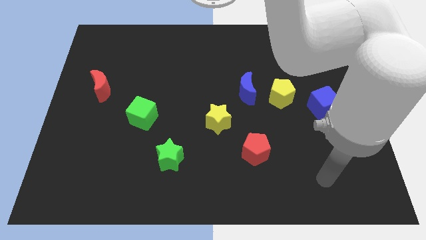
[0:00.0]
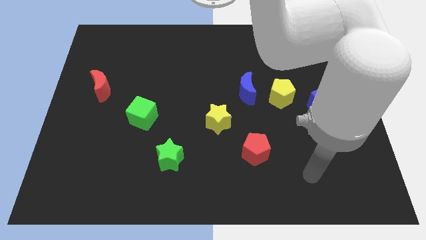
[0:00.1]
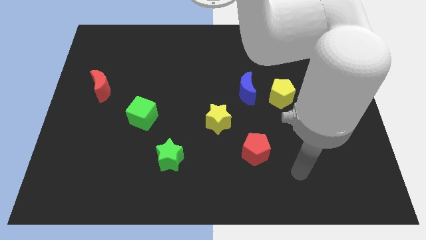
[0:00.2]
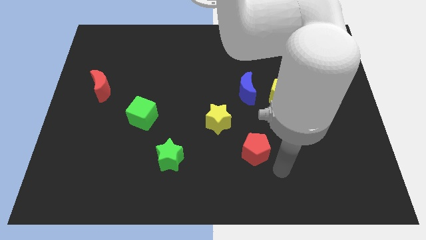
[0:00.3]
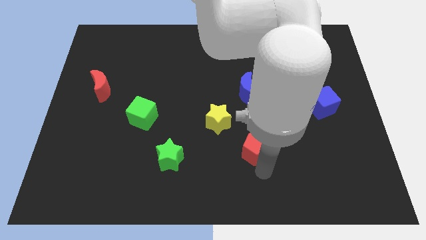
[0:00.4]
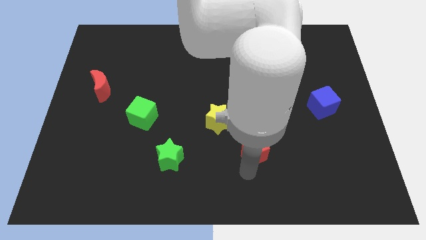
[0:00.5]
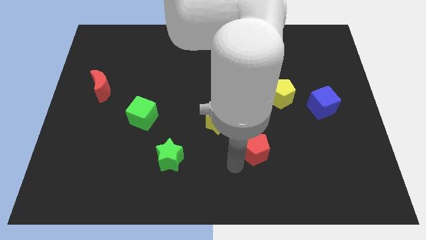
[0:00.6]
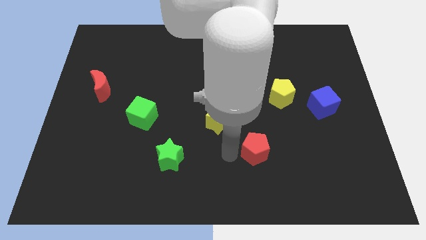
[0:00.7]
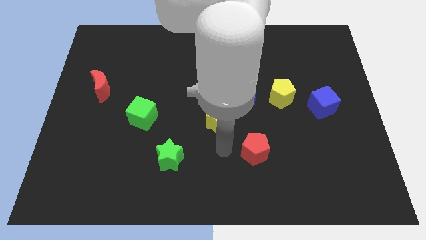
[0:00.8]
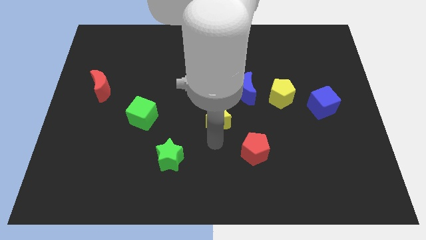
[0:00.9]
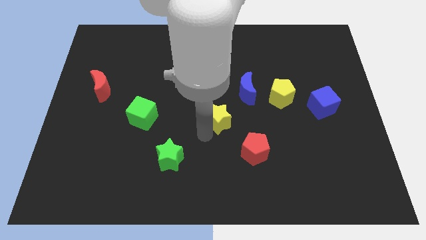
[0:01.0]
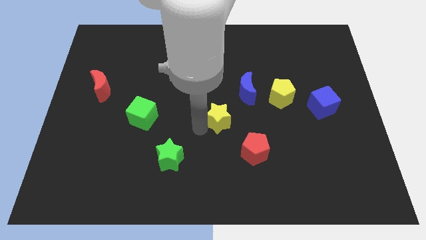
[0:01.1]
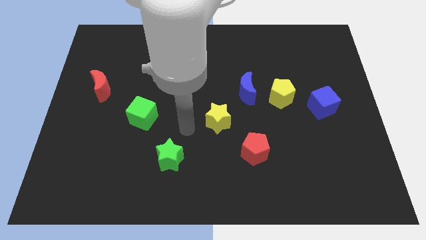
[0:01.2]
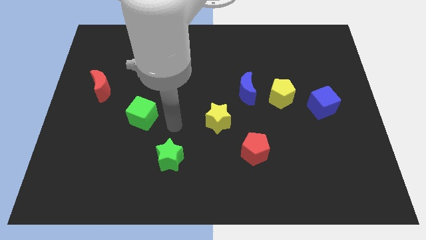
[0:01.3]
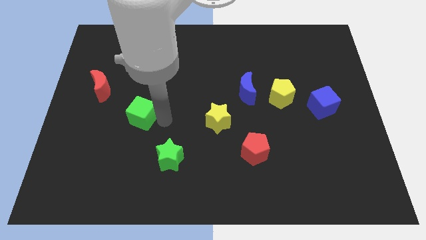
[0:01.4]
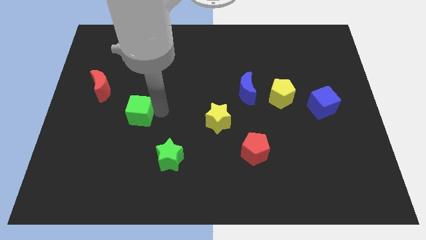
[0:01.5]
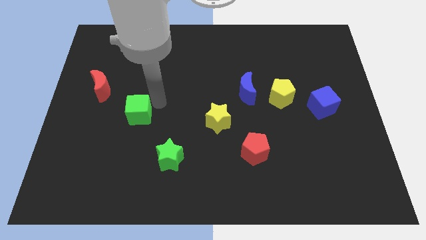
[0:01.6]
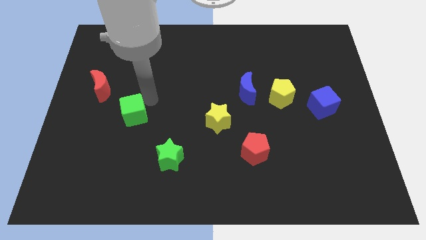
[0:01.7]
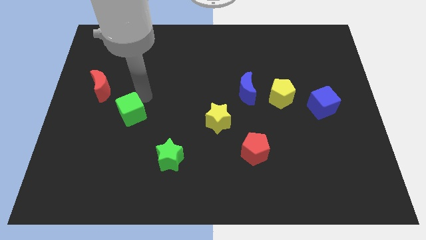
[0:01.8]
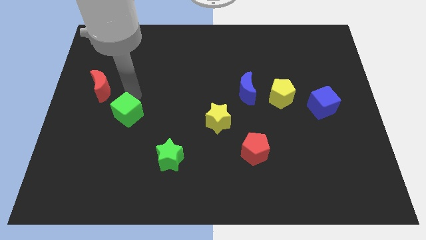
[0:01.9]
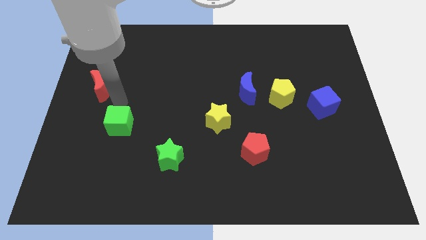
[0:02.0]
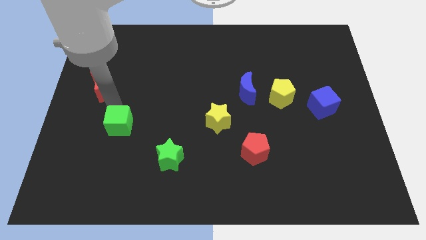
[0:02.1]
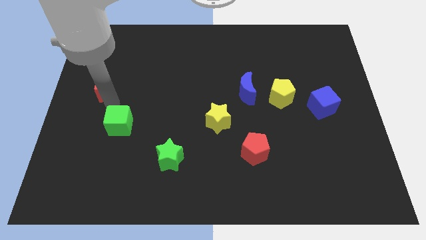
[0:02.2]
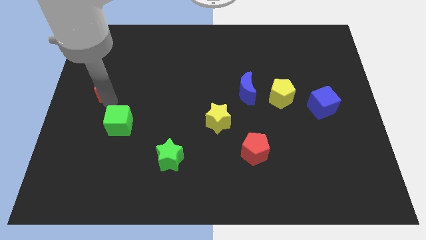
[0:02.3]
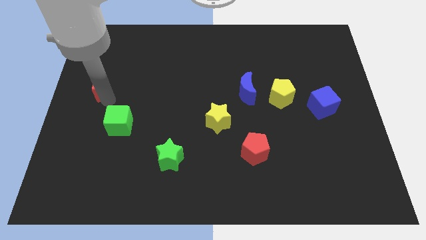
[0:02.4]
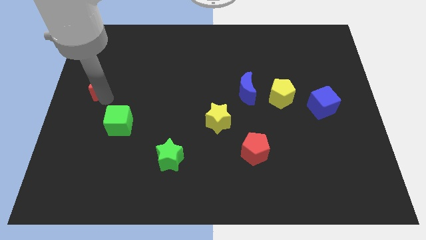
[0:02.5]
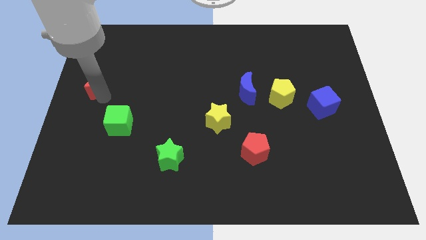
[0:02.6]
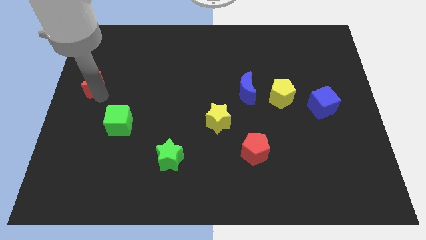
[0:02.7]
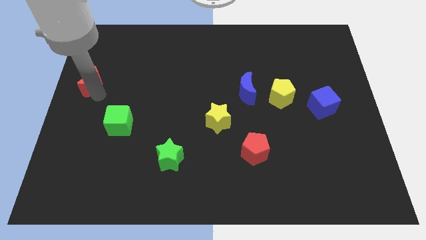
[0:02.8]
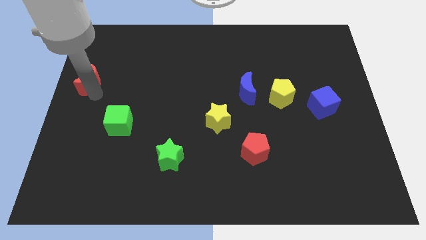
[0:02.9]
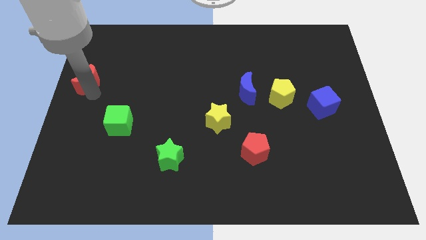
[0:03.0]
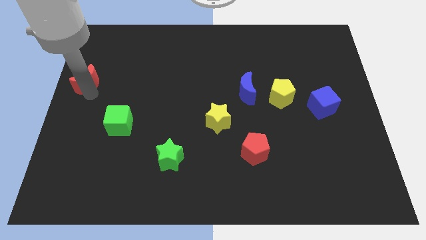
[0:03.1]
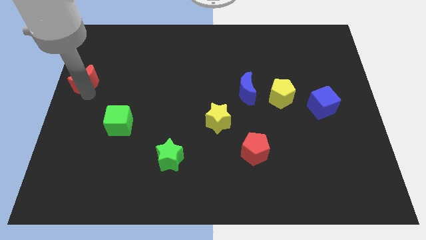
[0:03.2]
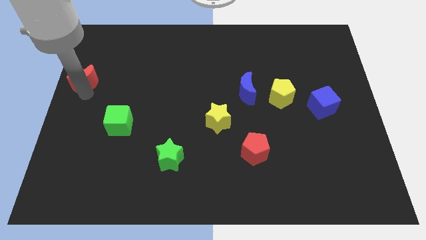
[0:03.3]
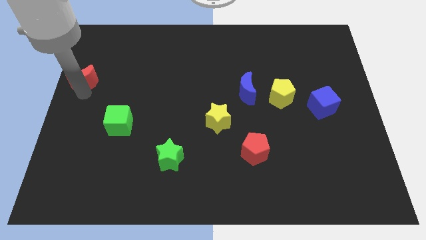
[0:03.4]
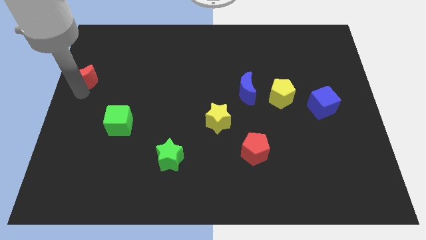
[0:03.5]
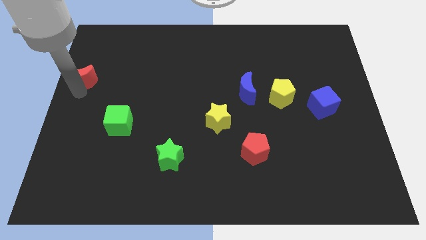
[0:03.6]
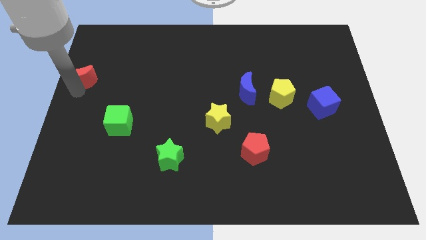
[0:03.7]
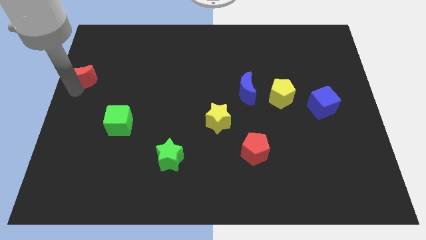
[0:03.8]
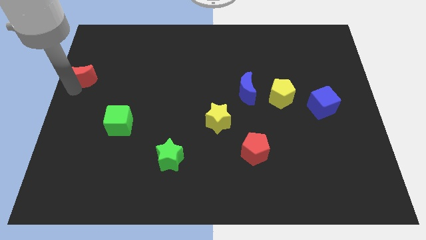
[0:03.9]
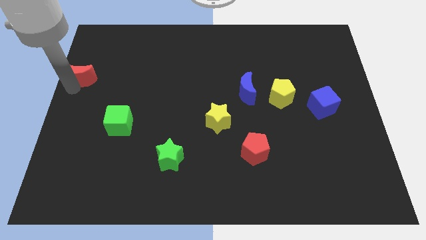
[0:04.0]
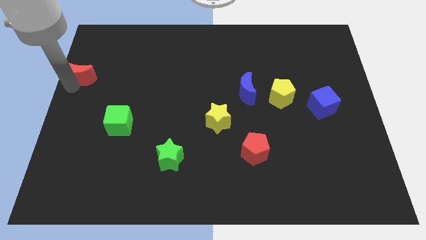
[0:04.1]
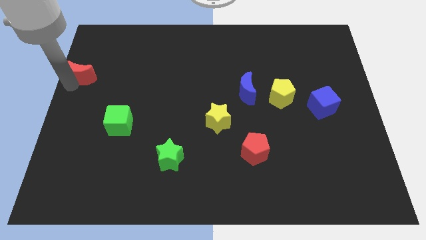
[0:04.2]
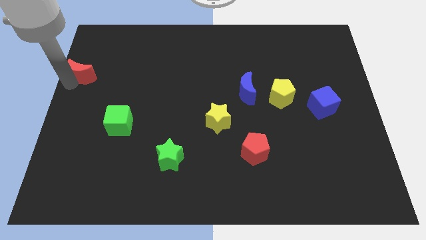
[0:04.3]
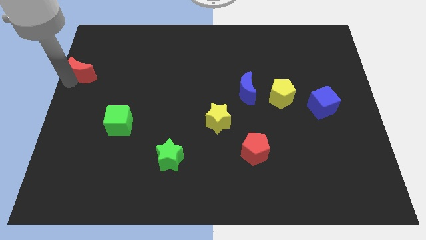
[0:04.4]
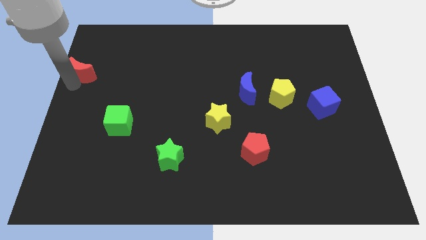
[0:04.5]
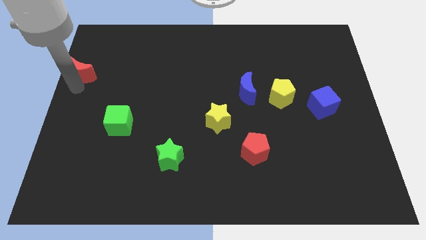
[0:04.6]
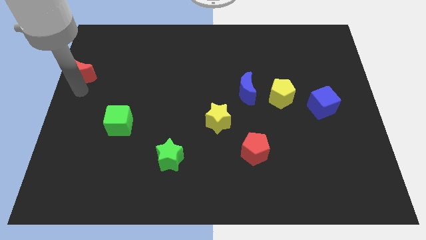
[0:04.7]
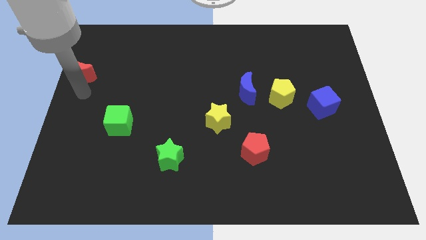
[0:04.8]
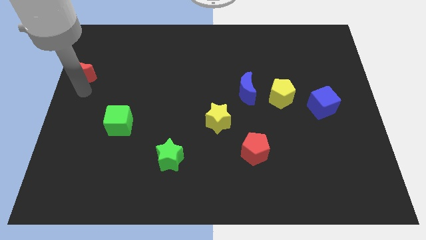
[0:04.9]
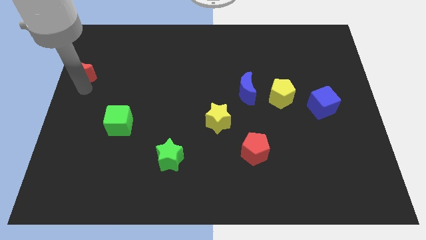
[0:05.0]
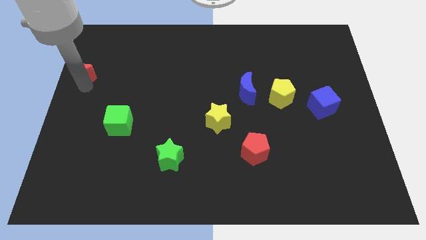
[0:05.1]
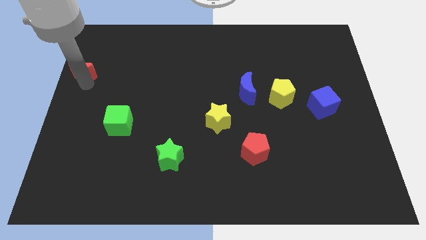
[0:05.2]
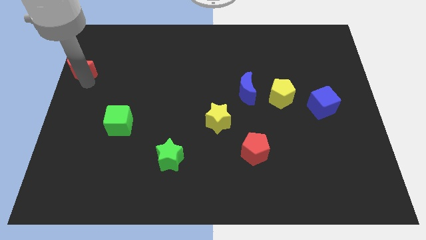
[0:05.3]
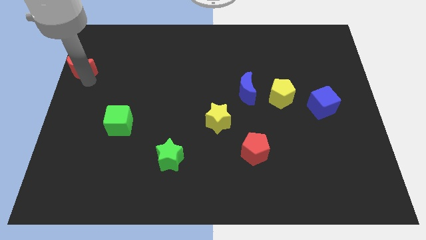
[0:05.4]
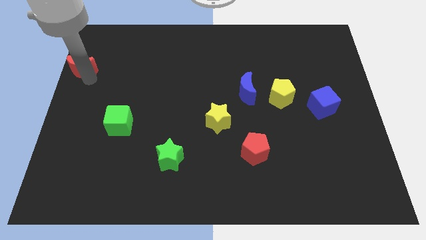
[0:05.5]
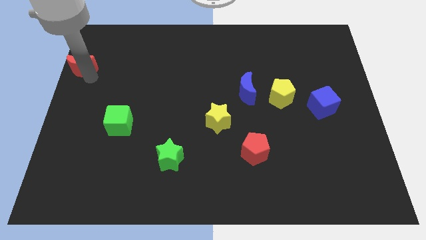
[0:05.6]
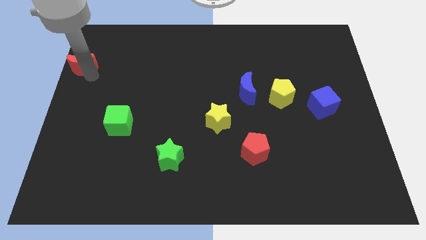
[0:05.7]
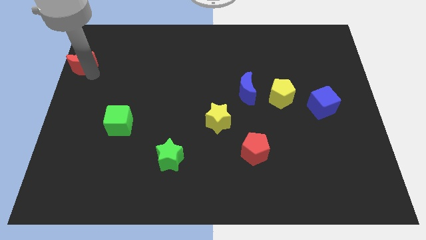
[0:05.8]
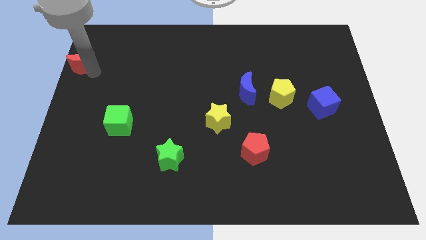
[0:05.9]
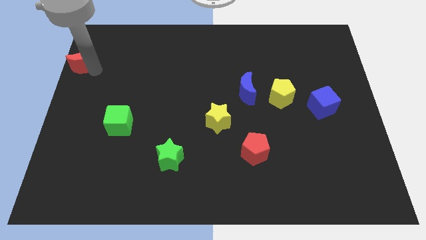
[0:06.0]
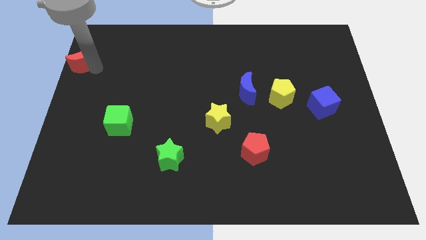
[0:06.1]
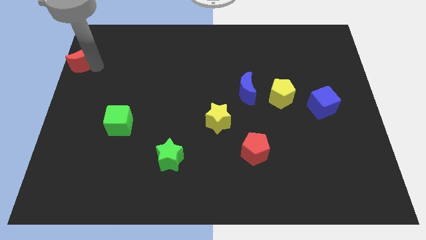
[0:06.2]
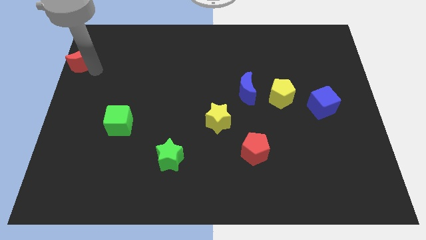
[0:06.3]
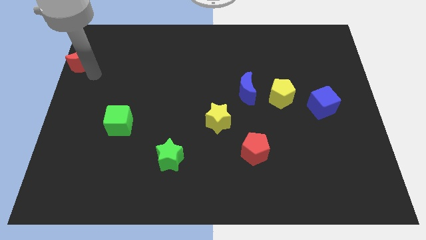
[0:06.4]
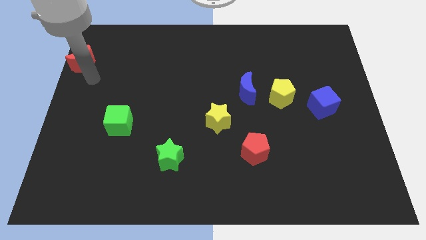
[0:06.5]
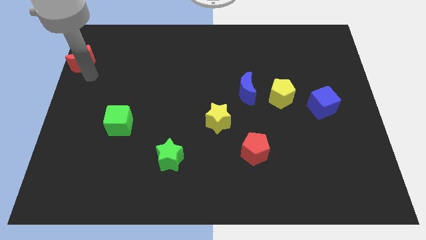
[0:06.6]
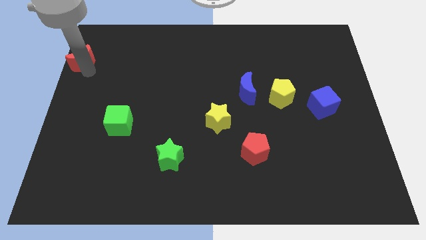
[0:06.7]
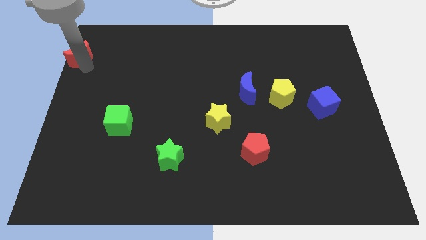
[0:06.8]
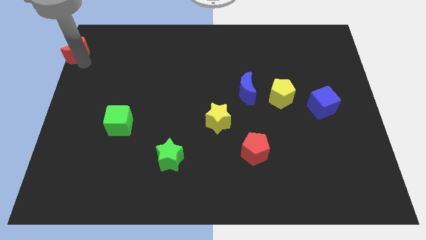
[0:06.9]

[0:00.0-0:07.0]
put the red moon to the top left of the board

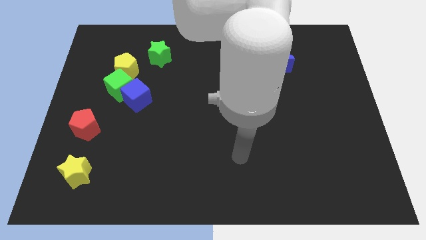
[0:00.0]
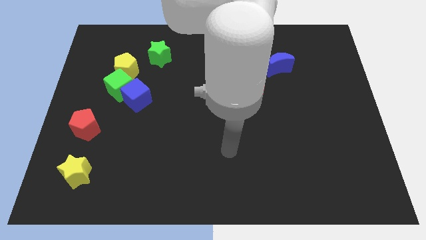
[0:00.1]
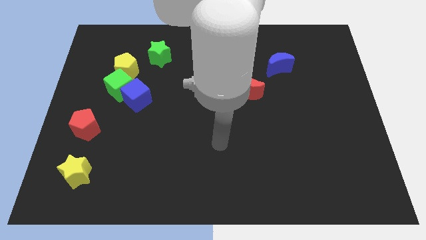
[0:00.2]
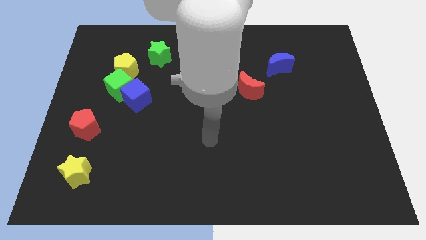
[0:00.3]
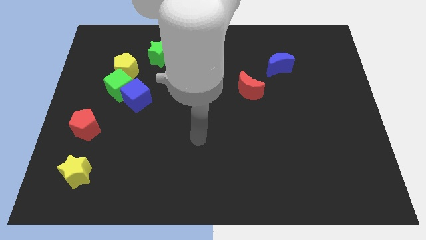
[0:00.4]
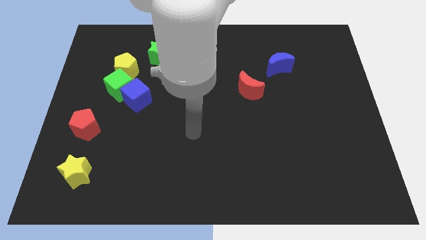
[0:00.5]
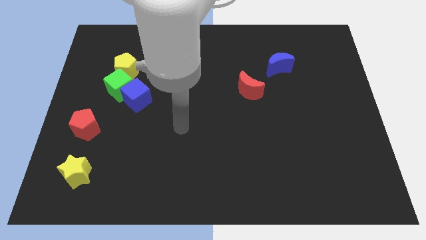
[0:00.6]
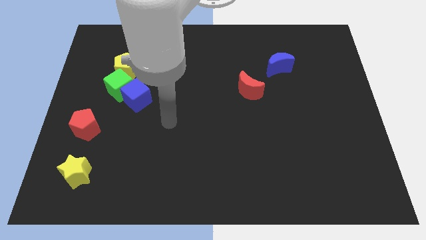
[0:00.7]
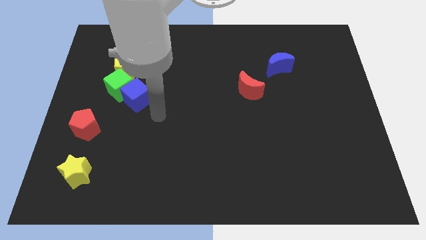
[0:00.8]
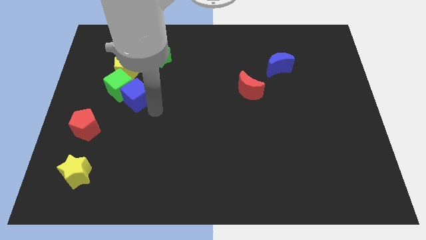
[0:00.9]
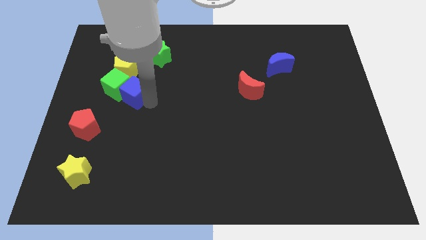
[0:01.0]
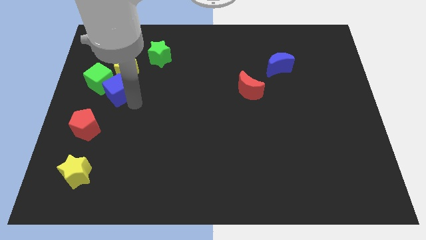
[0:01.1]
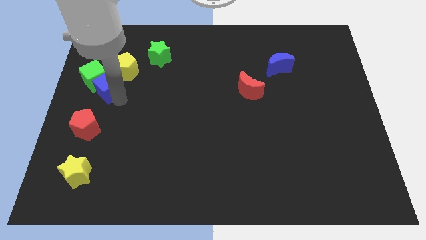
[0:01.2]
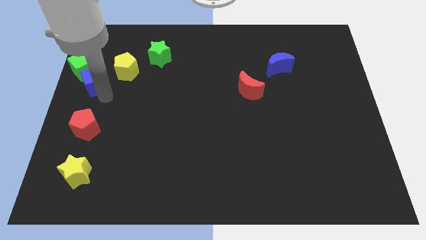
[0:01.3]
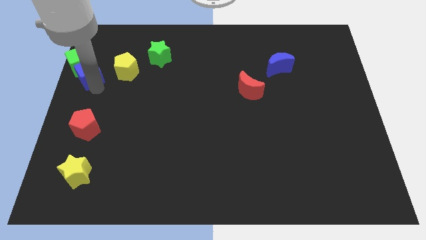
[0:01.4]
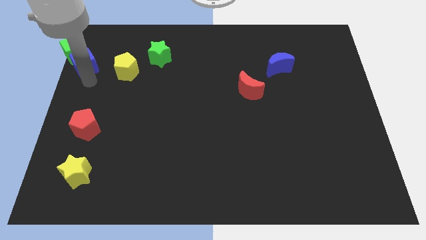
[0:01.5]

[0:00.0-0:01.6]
push the green cube to the top left corner
